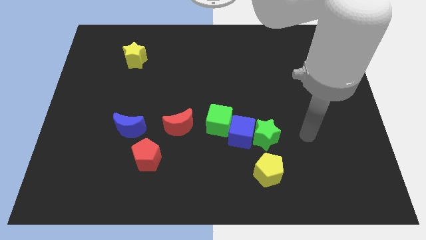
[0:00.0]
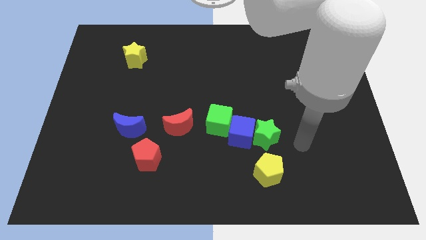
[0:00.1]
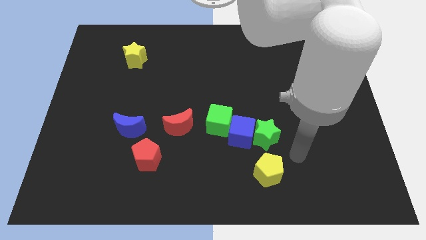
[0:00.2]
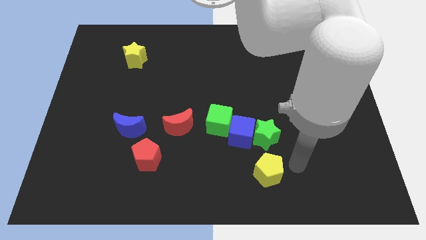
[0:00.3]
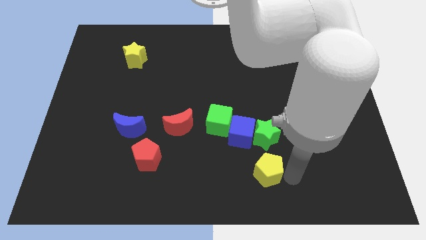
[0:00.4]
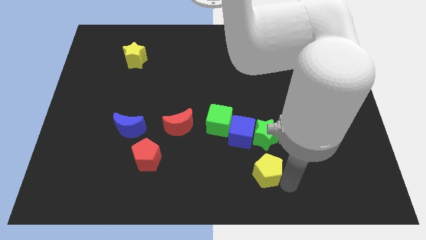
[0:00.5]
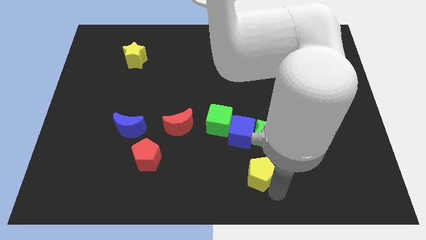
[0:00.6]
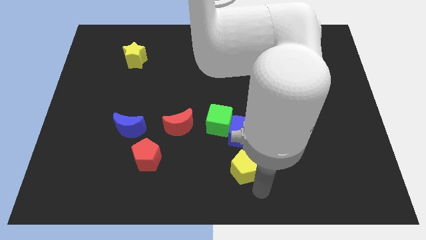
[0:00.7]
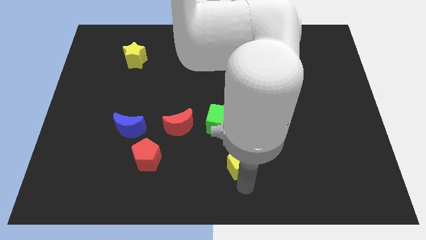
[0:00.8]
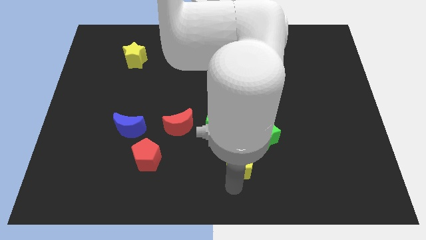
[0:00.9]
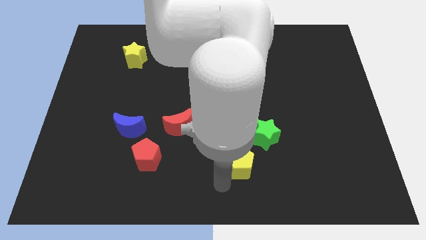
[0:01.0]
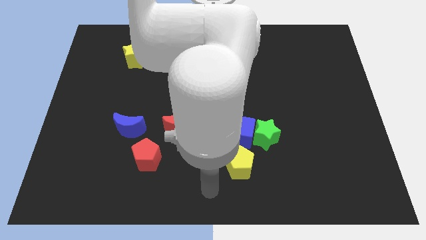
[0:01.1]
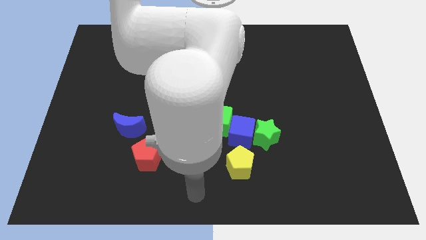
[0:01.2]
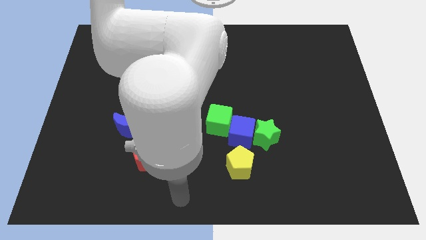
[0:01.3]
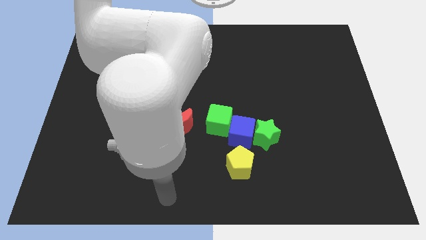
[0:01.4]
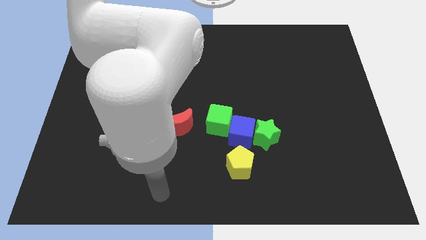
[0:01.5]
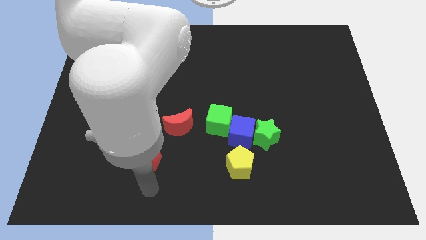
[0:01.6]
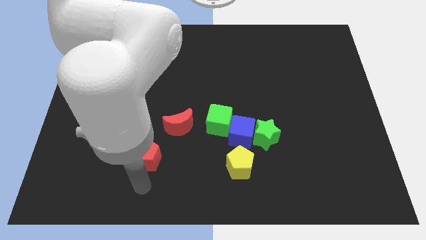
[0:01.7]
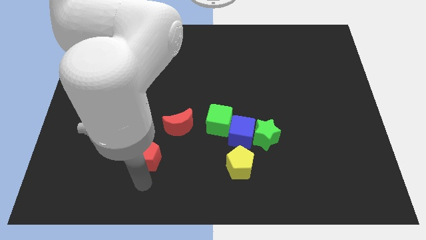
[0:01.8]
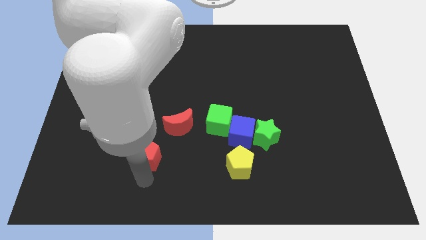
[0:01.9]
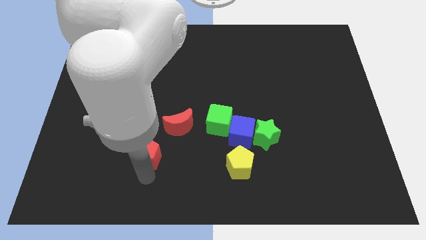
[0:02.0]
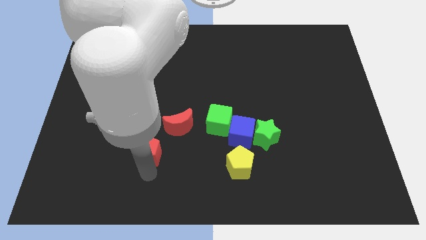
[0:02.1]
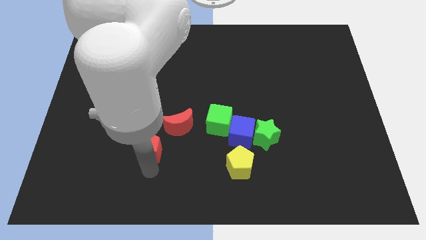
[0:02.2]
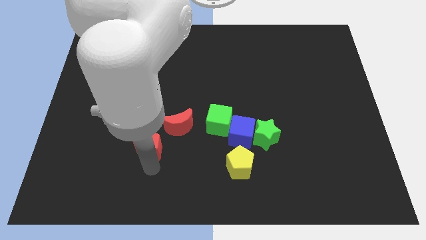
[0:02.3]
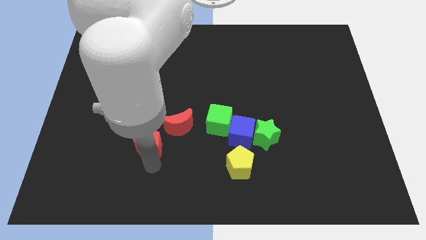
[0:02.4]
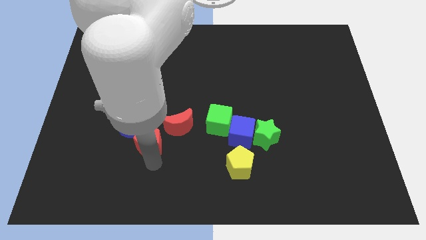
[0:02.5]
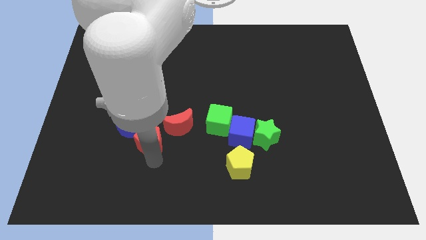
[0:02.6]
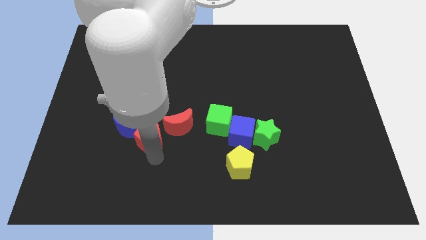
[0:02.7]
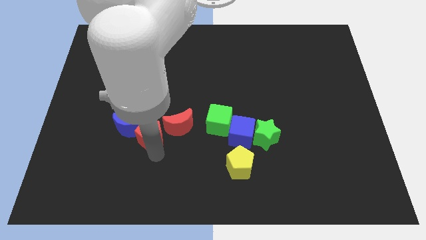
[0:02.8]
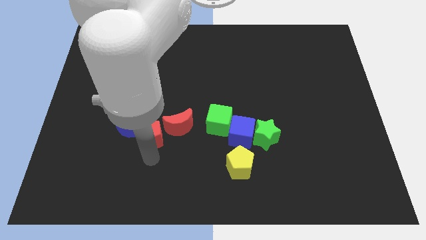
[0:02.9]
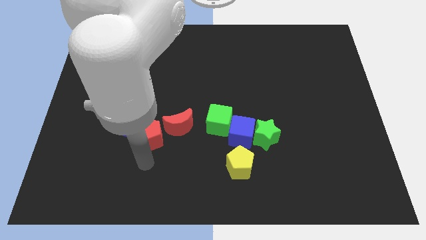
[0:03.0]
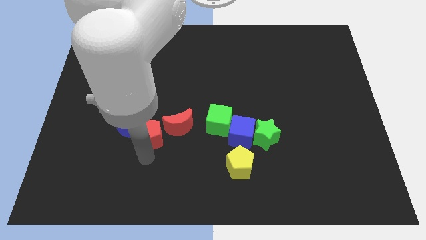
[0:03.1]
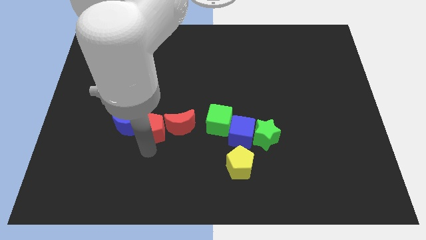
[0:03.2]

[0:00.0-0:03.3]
slightly slide the red pentagon upwards

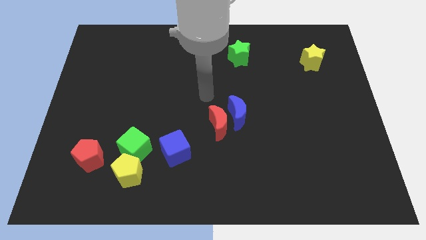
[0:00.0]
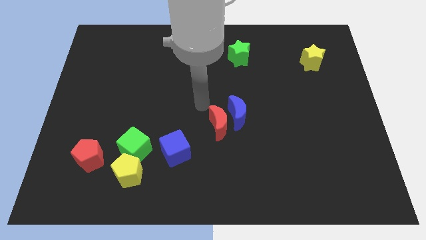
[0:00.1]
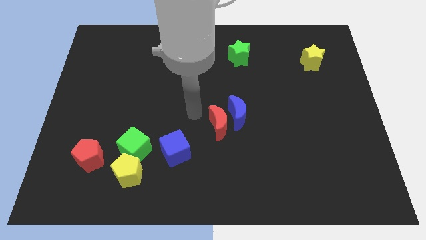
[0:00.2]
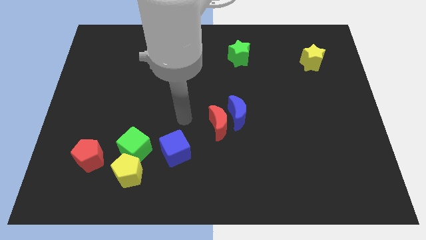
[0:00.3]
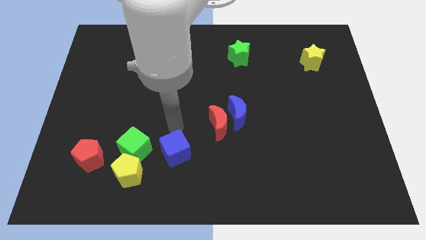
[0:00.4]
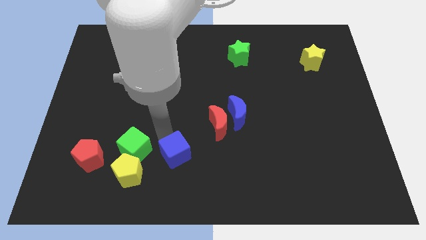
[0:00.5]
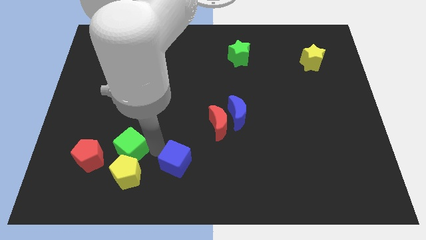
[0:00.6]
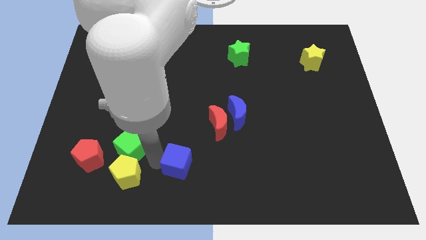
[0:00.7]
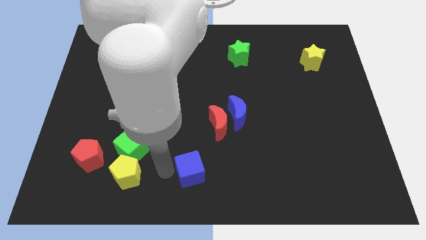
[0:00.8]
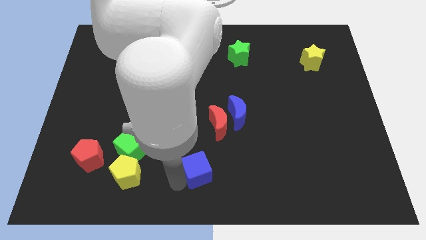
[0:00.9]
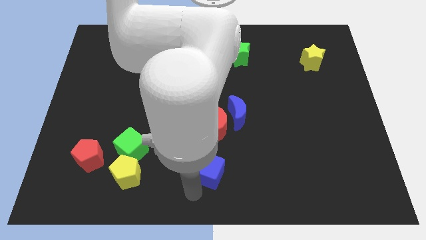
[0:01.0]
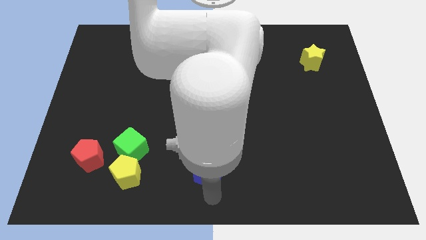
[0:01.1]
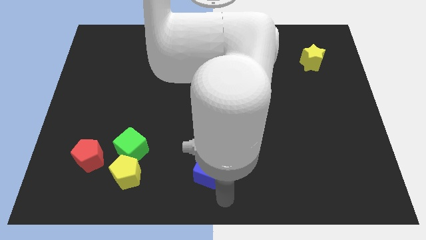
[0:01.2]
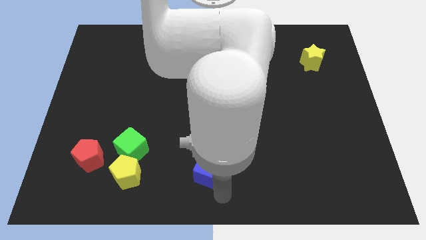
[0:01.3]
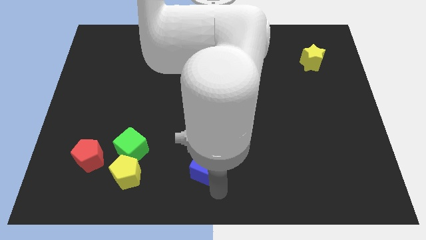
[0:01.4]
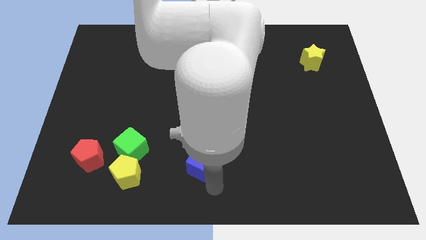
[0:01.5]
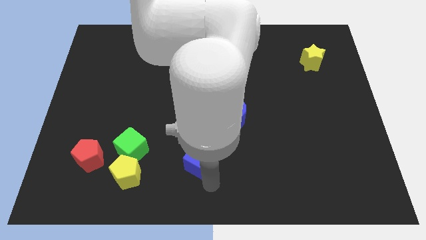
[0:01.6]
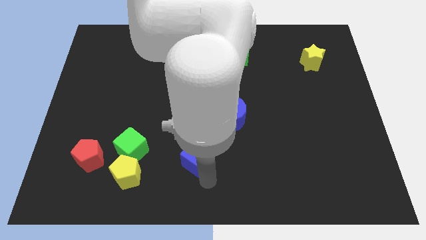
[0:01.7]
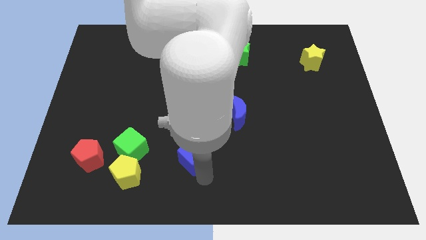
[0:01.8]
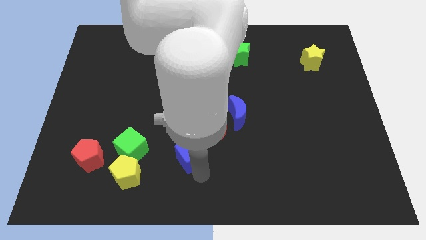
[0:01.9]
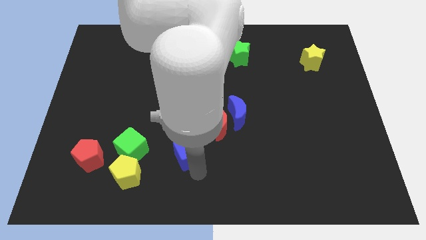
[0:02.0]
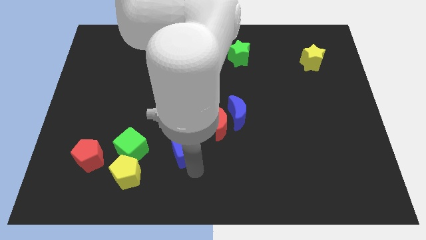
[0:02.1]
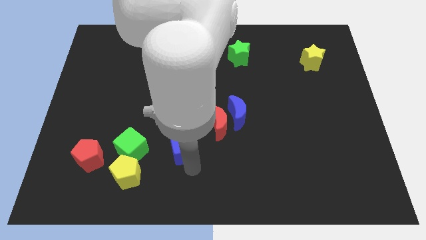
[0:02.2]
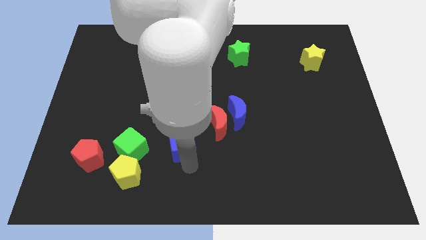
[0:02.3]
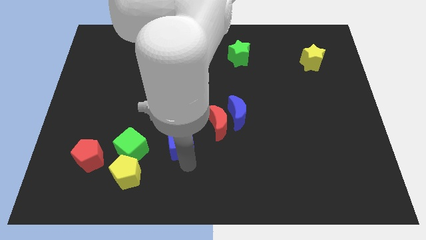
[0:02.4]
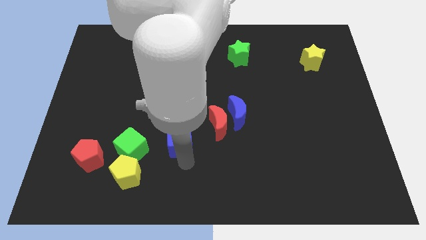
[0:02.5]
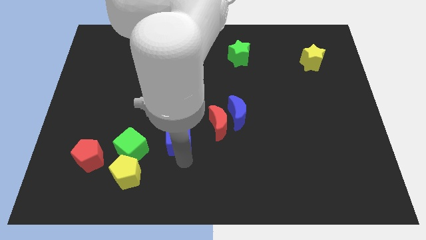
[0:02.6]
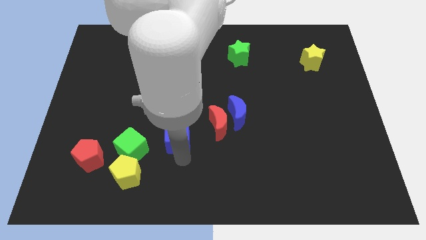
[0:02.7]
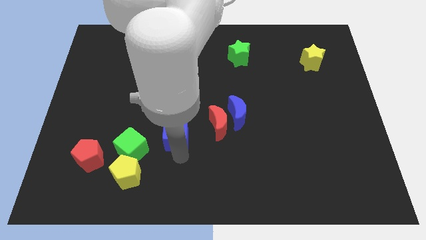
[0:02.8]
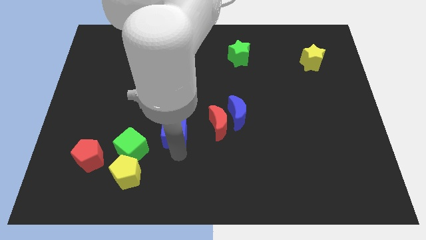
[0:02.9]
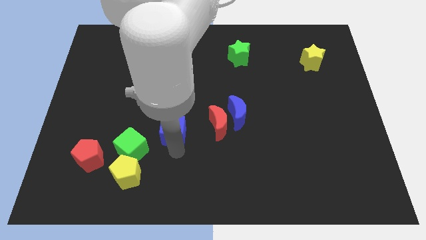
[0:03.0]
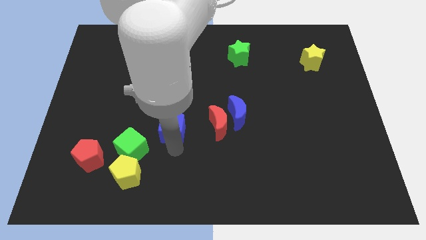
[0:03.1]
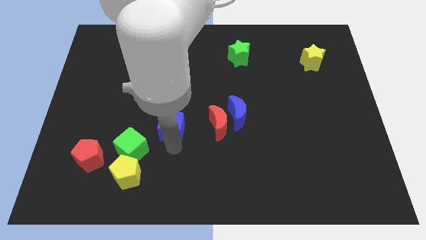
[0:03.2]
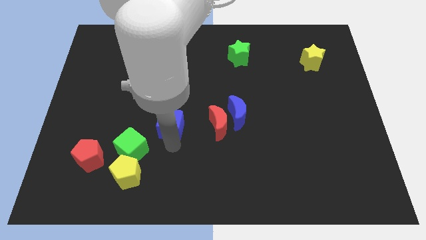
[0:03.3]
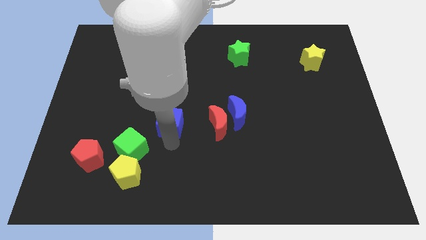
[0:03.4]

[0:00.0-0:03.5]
move the blue cube up a little bit

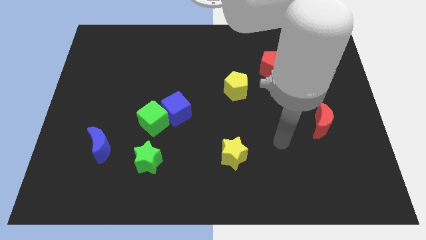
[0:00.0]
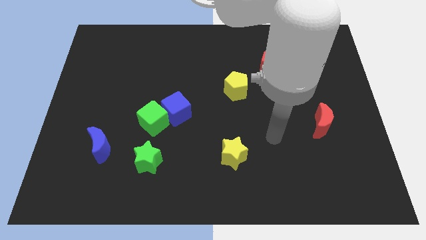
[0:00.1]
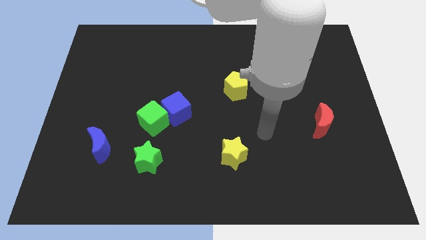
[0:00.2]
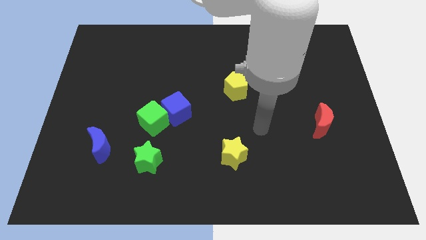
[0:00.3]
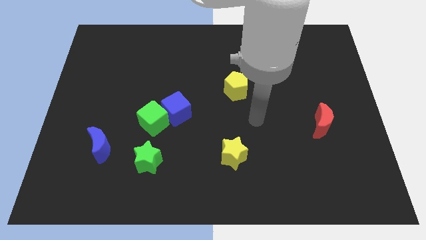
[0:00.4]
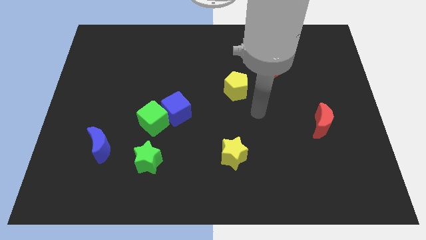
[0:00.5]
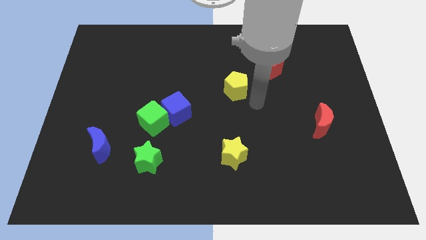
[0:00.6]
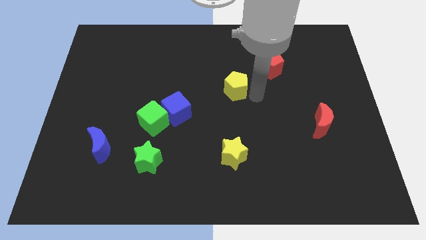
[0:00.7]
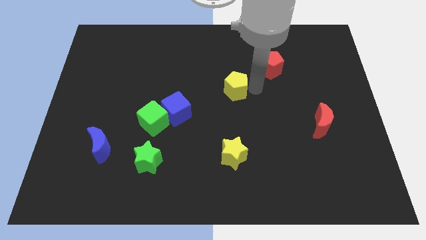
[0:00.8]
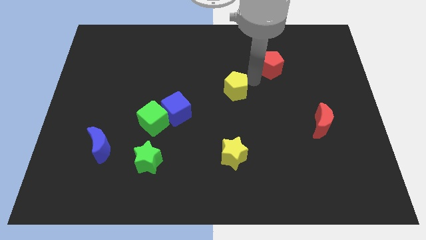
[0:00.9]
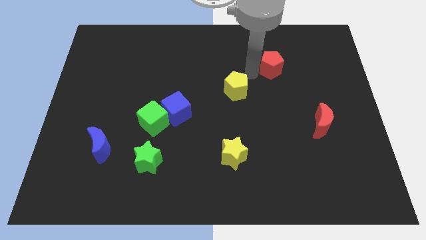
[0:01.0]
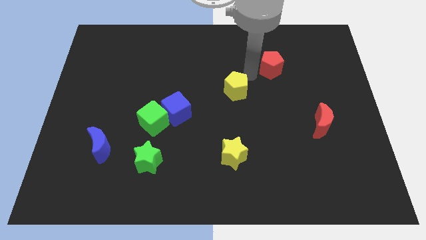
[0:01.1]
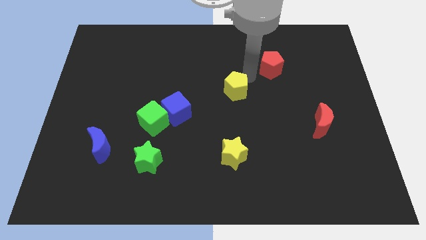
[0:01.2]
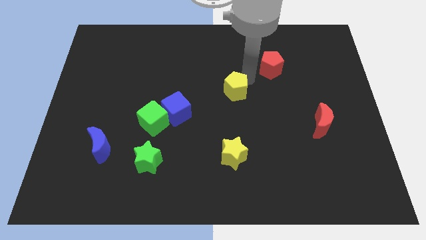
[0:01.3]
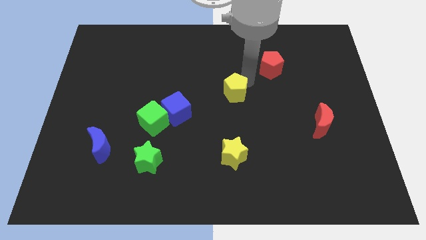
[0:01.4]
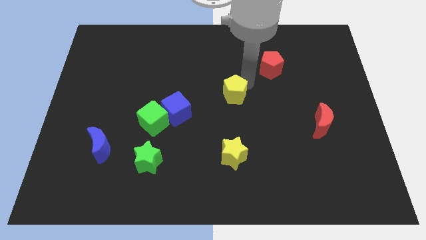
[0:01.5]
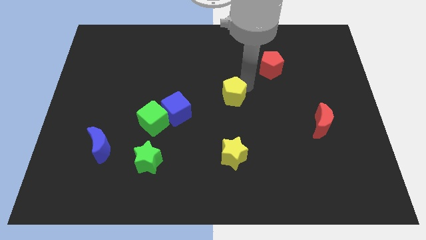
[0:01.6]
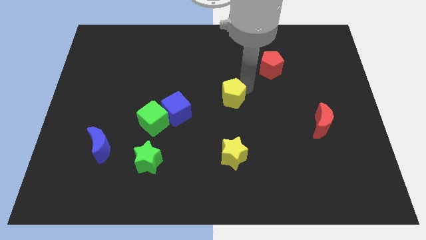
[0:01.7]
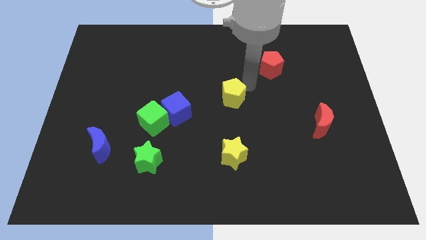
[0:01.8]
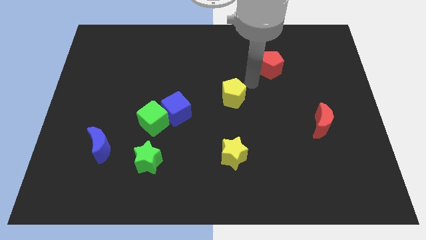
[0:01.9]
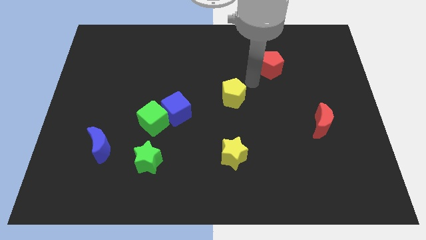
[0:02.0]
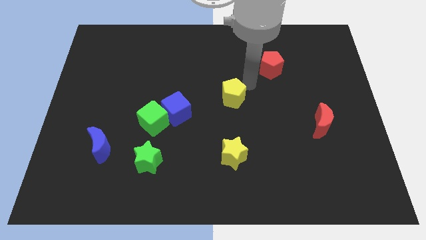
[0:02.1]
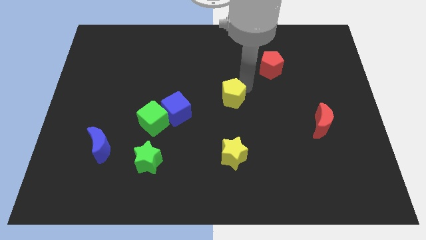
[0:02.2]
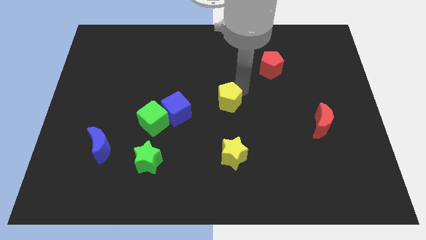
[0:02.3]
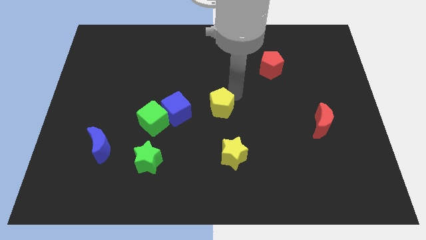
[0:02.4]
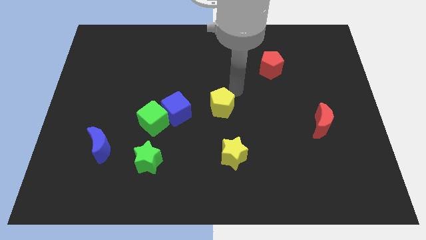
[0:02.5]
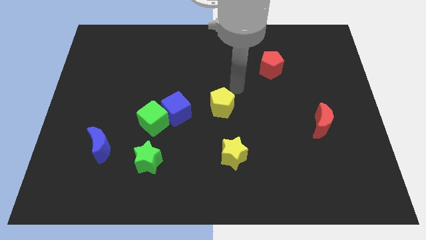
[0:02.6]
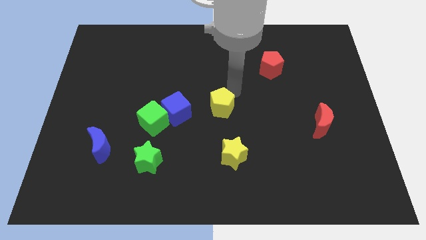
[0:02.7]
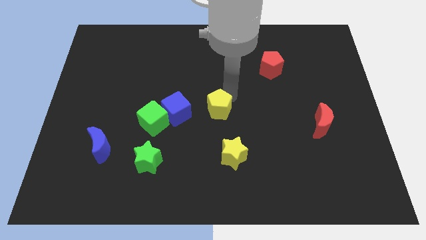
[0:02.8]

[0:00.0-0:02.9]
move the yellow pentagon somewhat diagonally down and left
